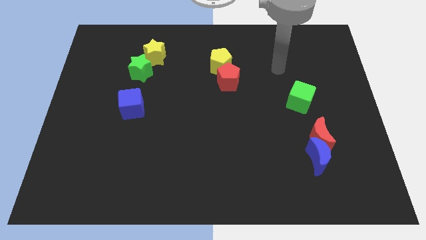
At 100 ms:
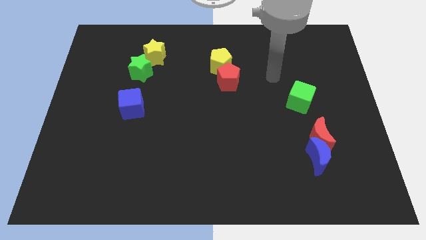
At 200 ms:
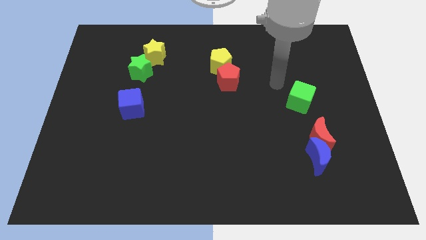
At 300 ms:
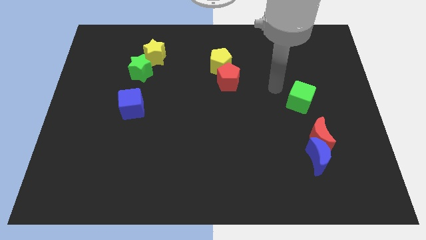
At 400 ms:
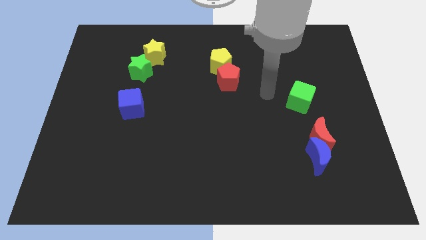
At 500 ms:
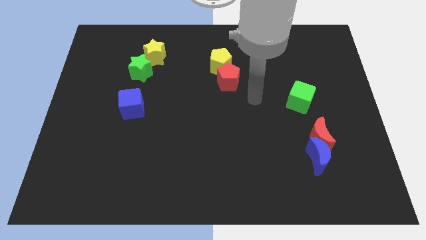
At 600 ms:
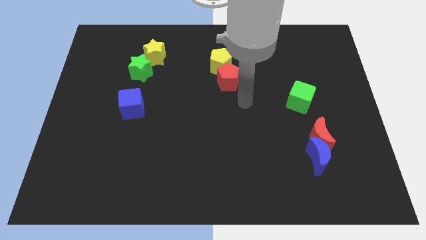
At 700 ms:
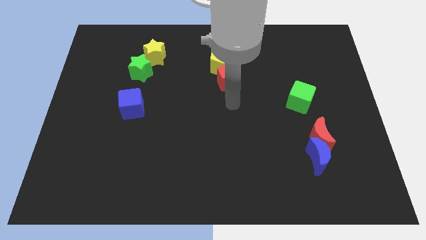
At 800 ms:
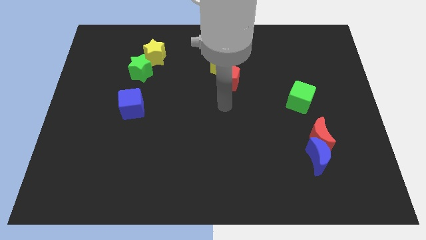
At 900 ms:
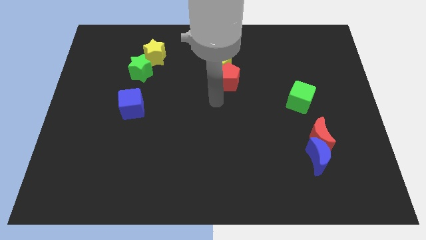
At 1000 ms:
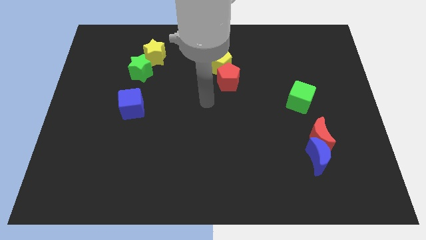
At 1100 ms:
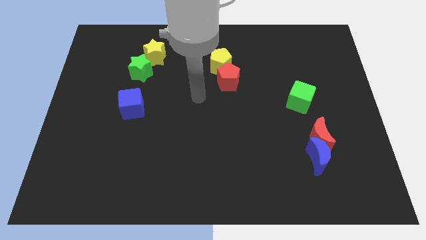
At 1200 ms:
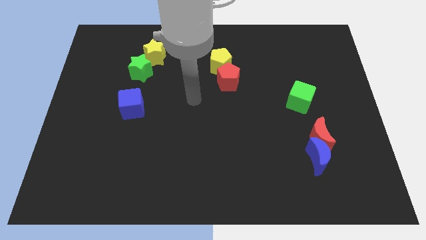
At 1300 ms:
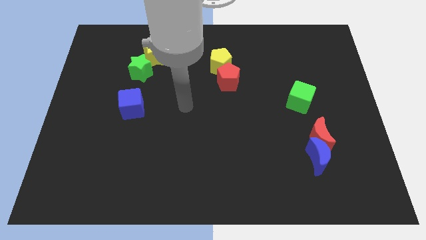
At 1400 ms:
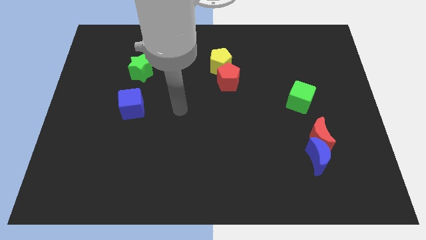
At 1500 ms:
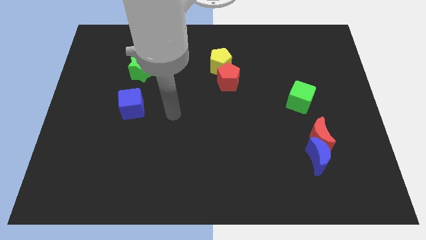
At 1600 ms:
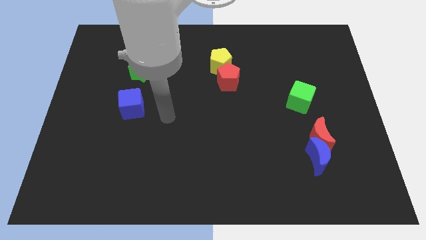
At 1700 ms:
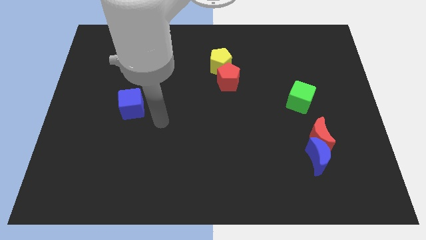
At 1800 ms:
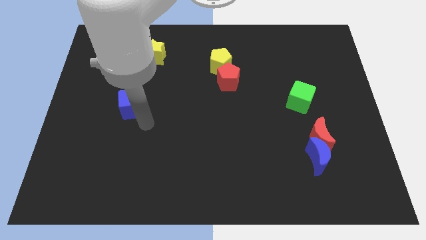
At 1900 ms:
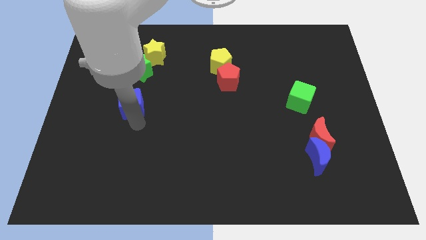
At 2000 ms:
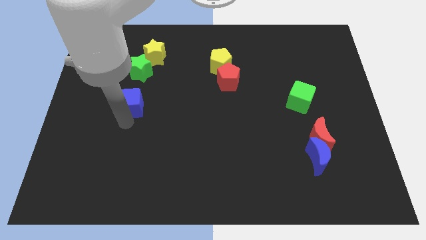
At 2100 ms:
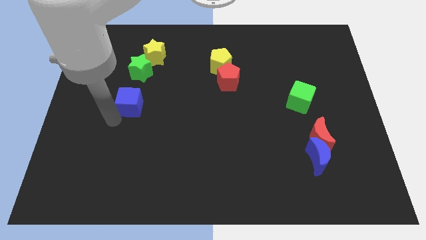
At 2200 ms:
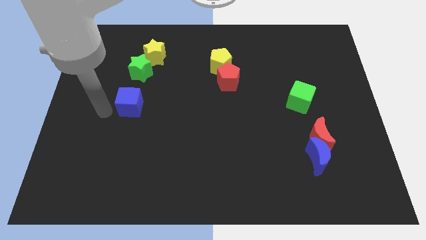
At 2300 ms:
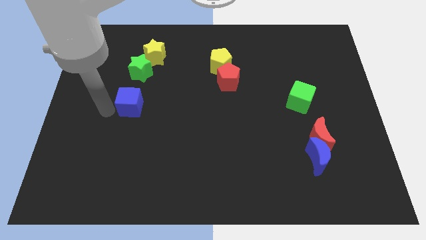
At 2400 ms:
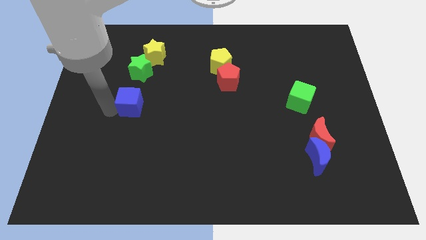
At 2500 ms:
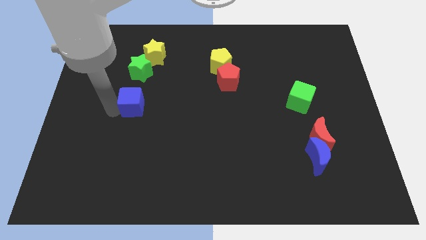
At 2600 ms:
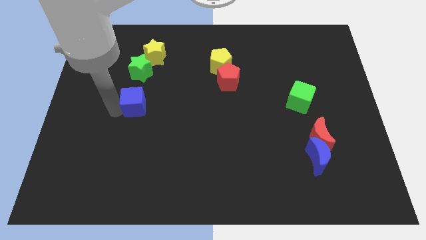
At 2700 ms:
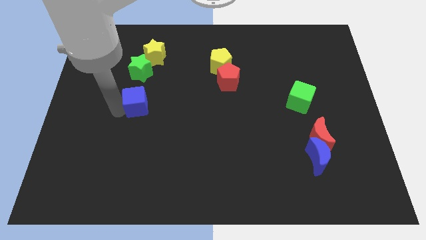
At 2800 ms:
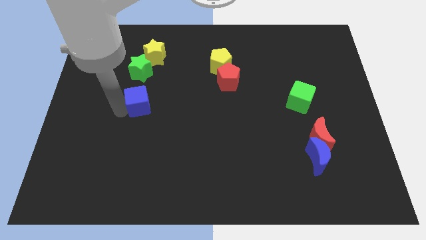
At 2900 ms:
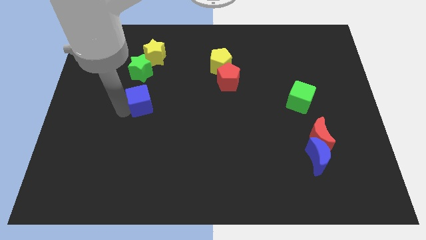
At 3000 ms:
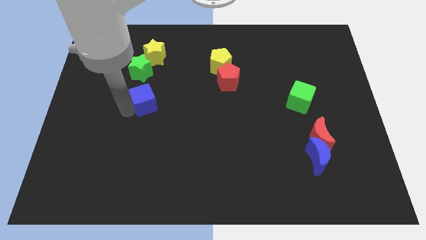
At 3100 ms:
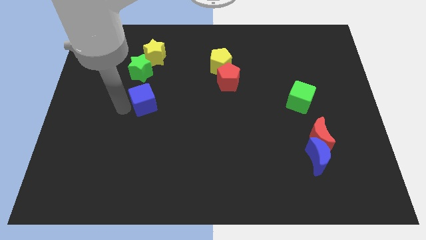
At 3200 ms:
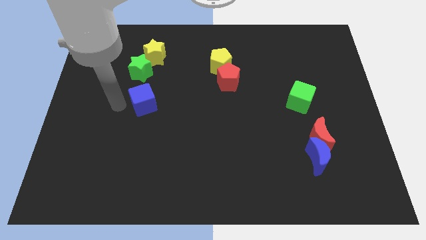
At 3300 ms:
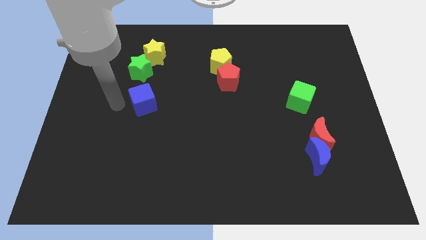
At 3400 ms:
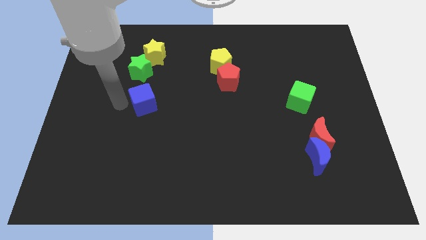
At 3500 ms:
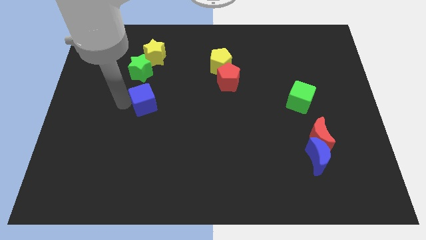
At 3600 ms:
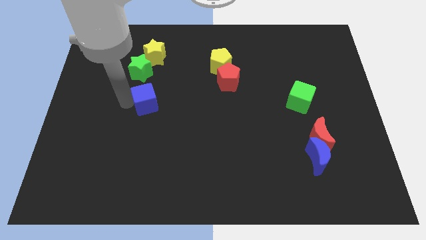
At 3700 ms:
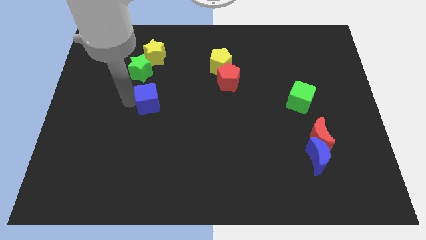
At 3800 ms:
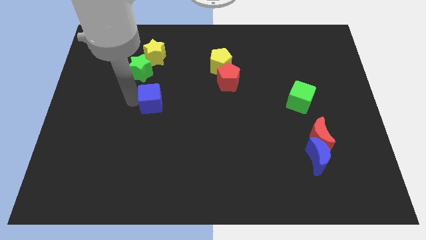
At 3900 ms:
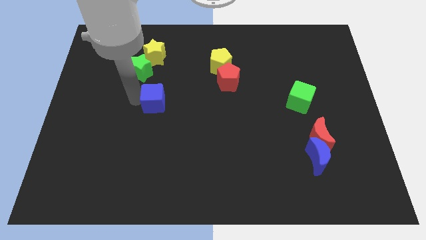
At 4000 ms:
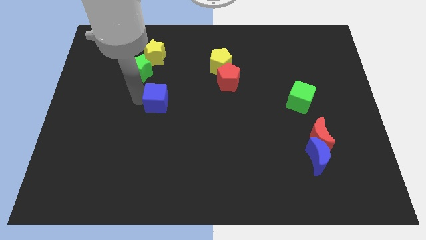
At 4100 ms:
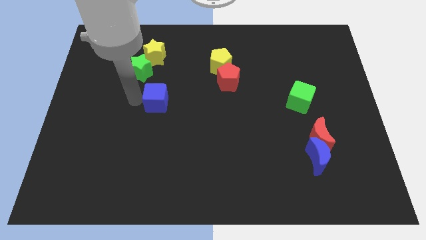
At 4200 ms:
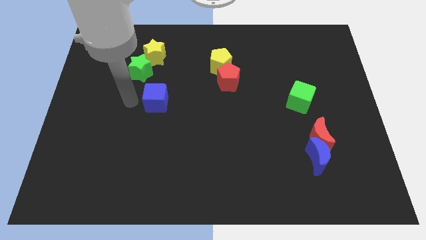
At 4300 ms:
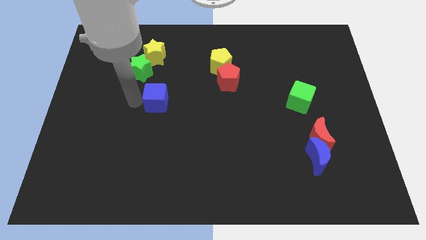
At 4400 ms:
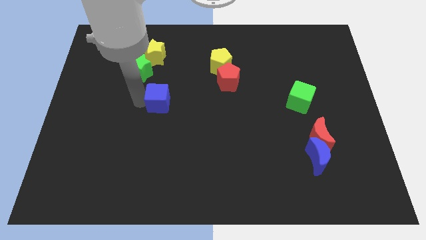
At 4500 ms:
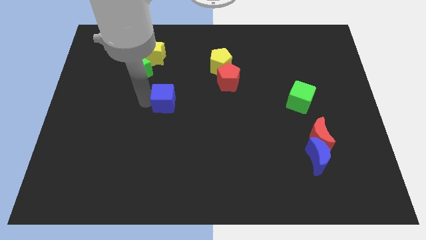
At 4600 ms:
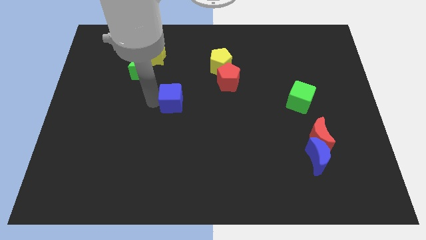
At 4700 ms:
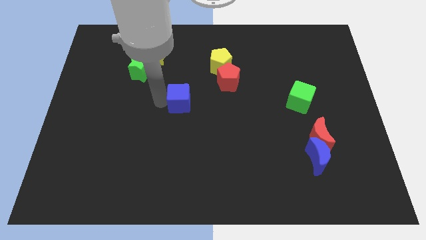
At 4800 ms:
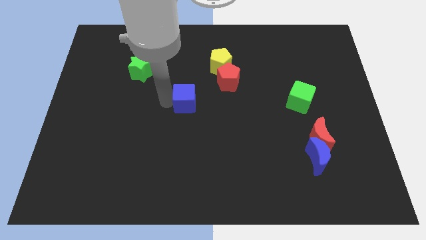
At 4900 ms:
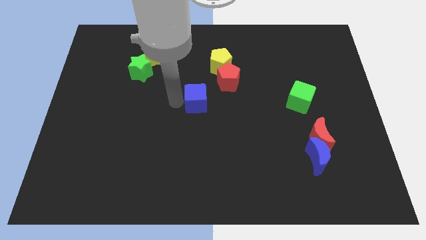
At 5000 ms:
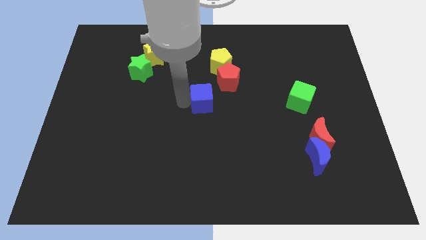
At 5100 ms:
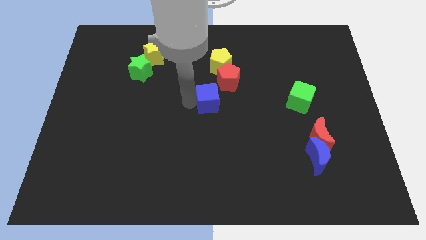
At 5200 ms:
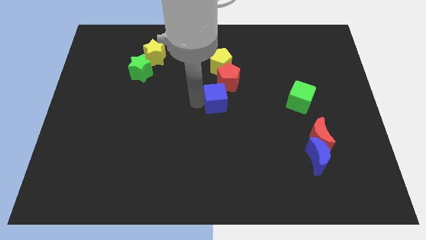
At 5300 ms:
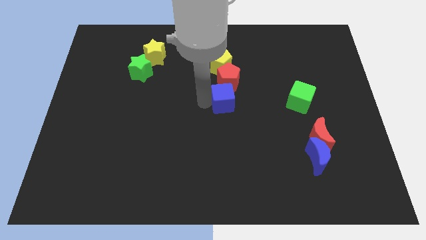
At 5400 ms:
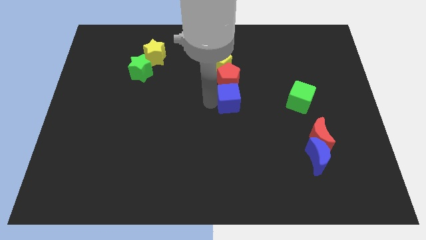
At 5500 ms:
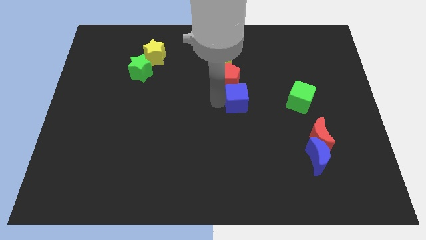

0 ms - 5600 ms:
push the blue cube just left of the green cube

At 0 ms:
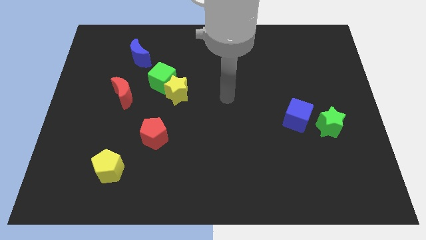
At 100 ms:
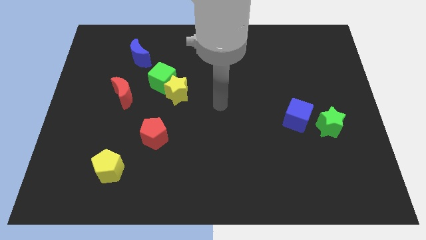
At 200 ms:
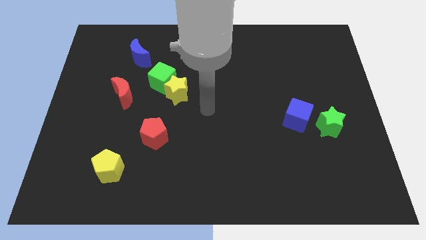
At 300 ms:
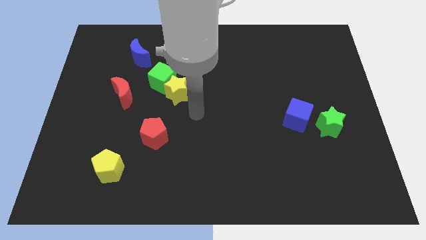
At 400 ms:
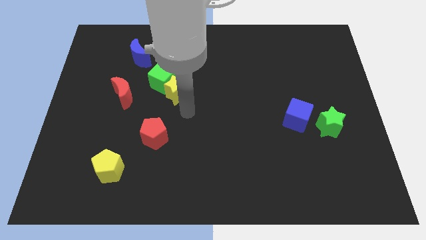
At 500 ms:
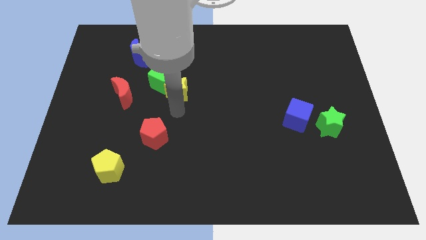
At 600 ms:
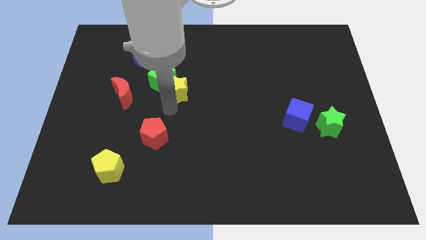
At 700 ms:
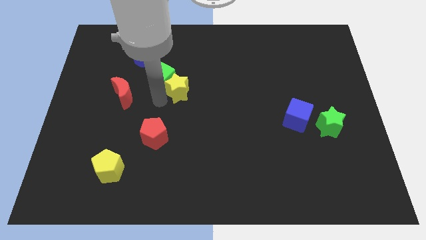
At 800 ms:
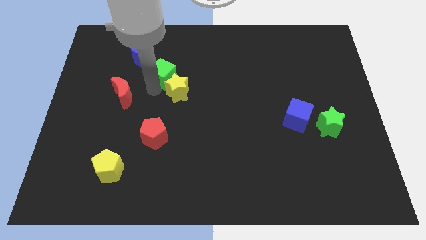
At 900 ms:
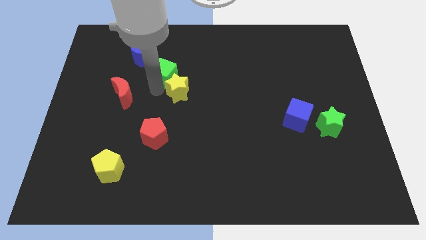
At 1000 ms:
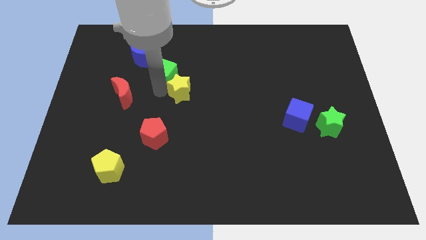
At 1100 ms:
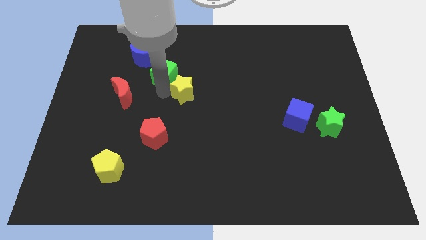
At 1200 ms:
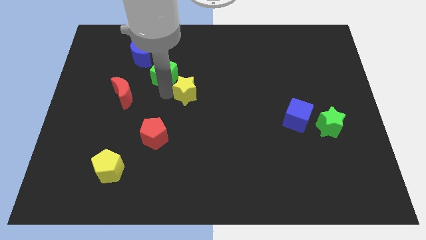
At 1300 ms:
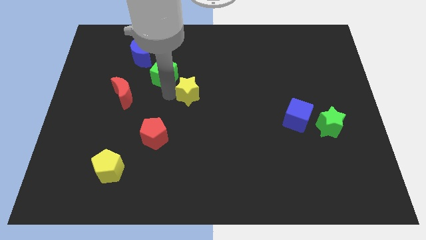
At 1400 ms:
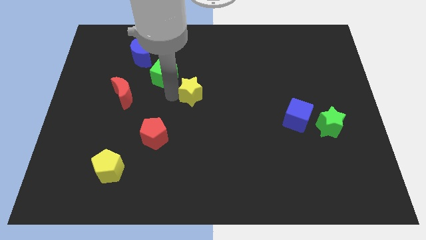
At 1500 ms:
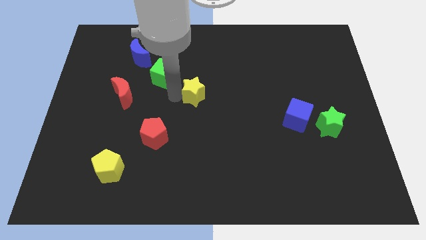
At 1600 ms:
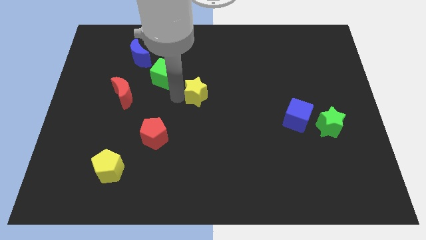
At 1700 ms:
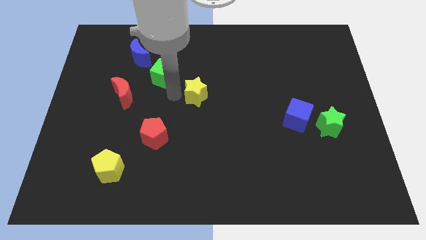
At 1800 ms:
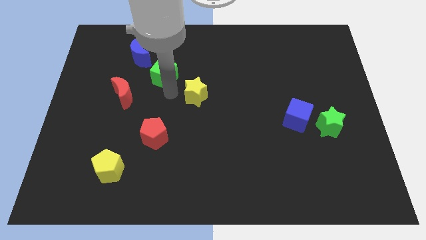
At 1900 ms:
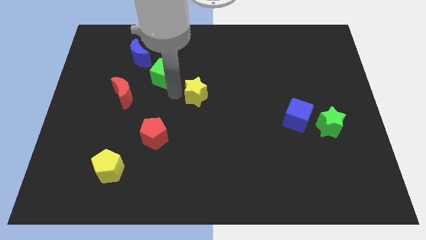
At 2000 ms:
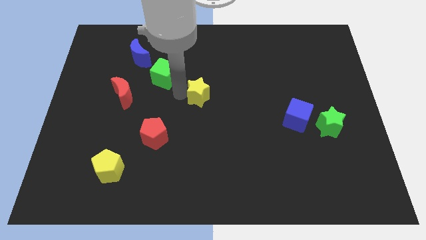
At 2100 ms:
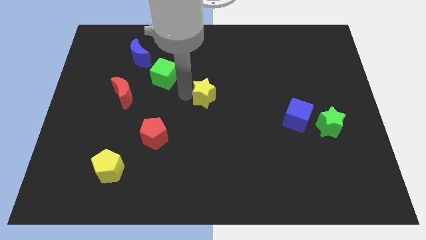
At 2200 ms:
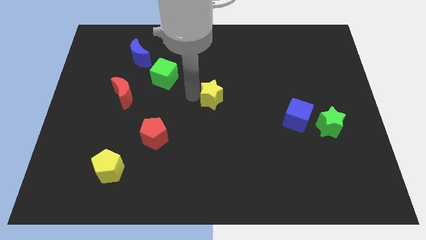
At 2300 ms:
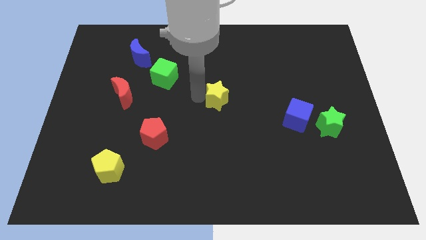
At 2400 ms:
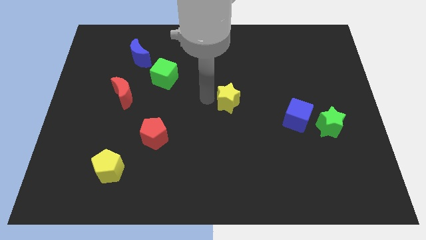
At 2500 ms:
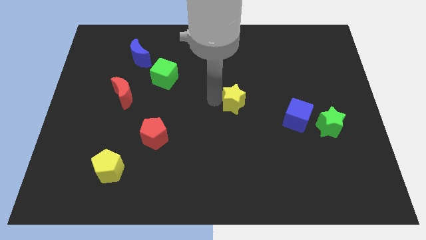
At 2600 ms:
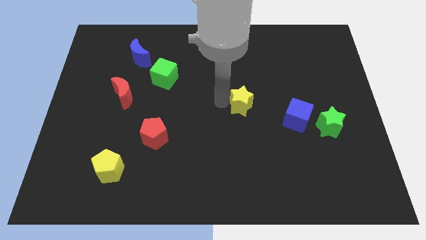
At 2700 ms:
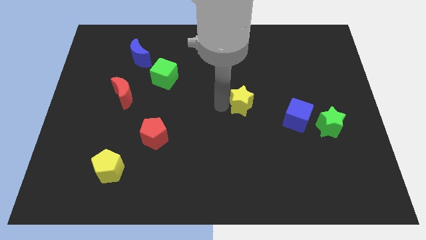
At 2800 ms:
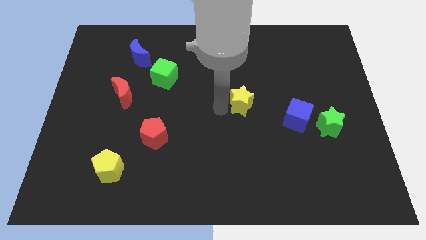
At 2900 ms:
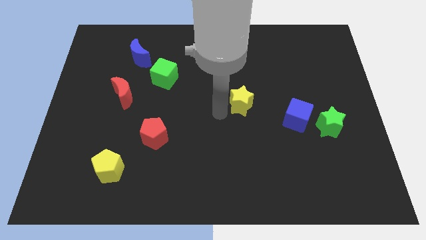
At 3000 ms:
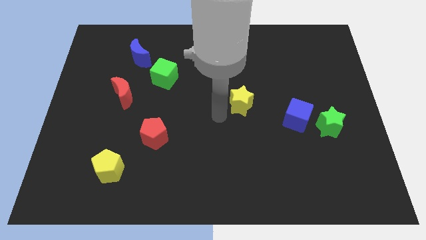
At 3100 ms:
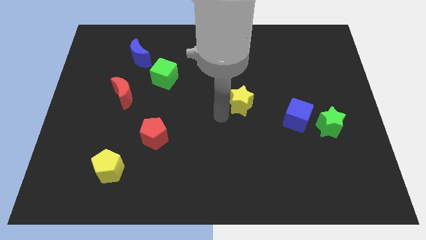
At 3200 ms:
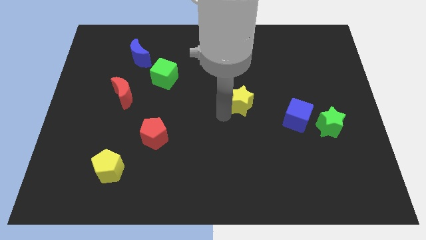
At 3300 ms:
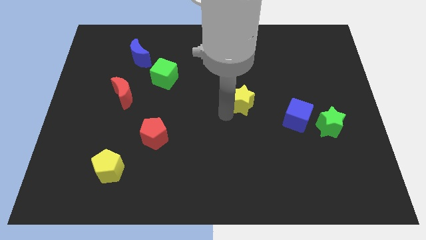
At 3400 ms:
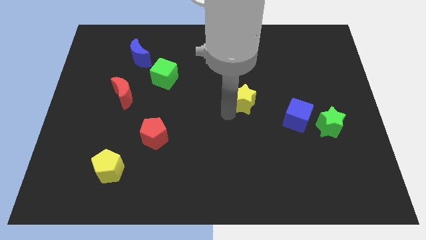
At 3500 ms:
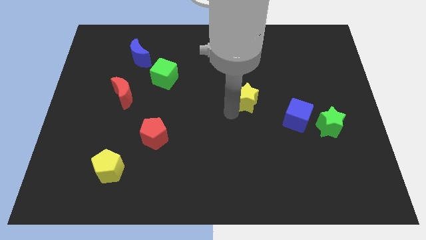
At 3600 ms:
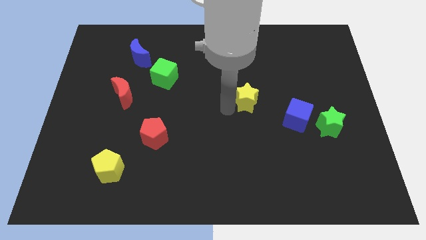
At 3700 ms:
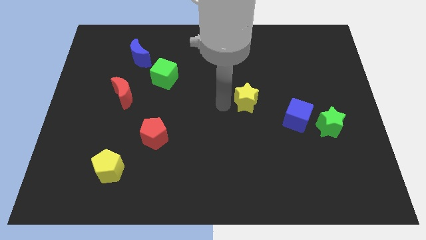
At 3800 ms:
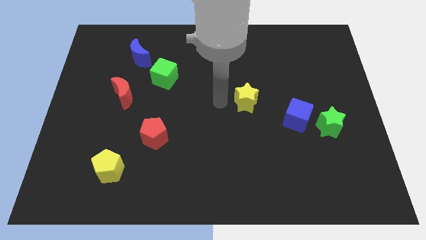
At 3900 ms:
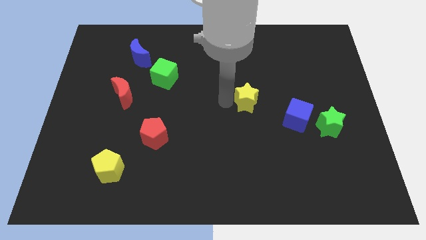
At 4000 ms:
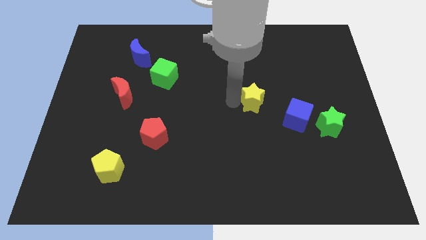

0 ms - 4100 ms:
move the yellow star to the top left of the blue cube
